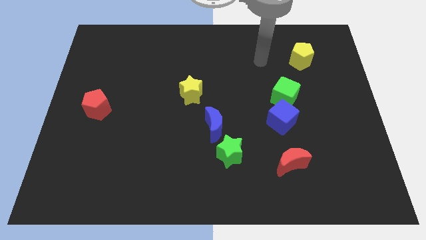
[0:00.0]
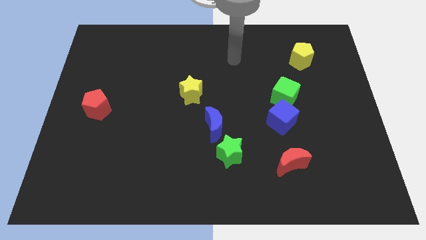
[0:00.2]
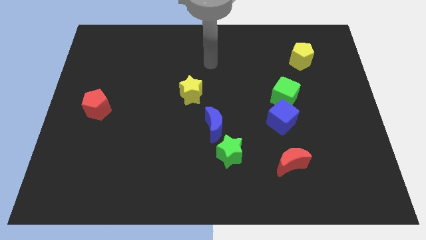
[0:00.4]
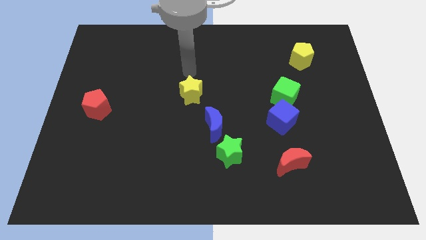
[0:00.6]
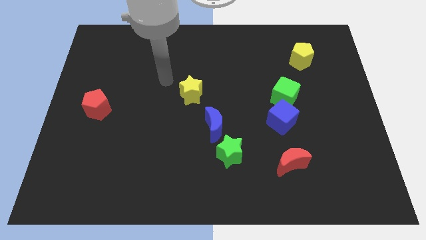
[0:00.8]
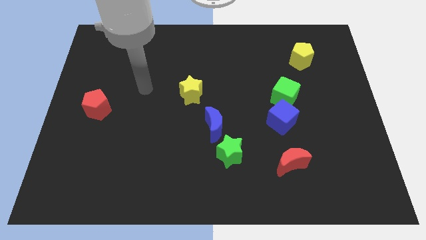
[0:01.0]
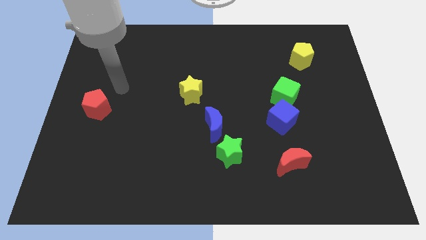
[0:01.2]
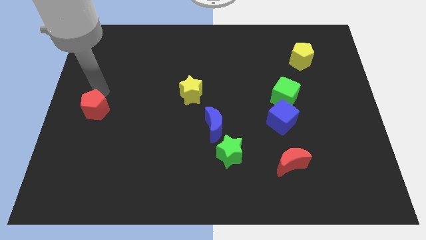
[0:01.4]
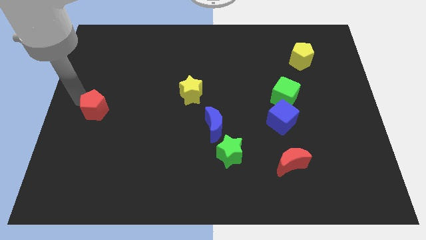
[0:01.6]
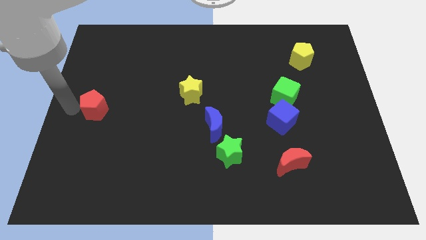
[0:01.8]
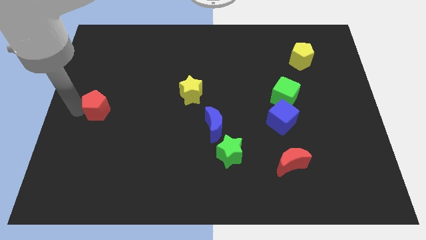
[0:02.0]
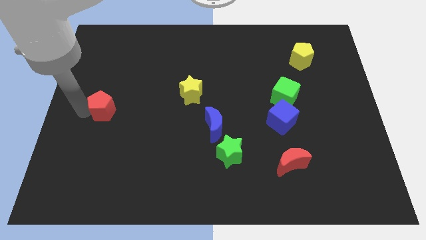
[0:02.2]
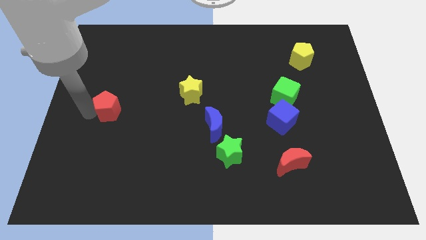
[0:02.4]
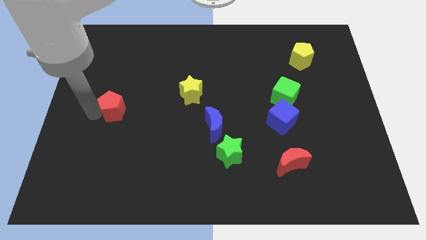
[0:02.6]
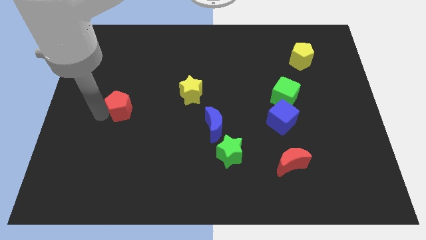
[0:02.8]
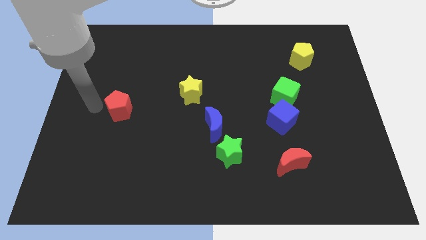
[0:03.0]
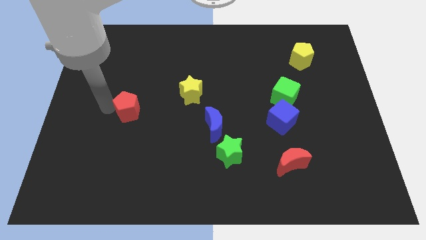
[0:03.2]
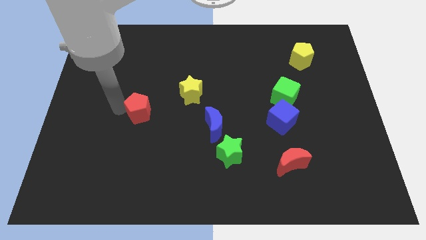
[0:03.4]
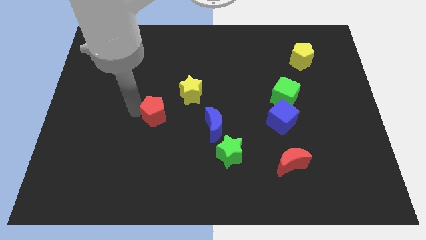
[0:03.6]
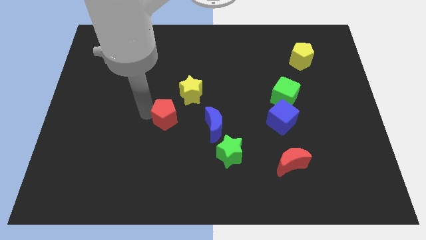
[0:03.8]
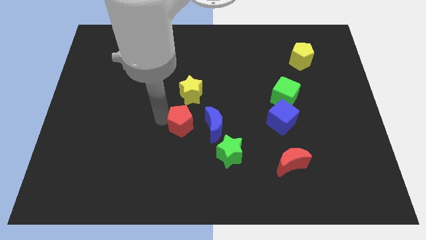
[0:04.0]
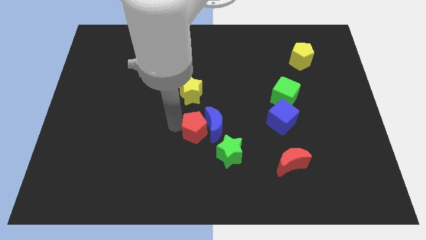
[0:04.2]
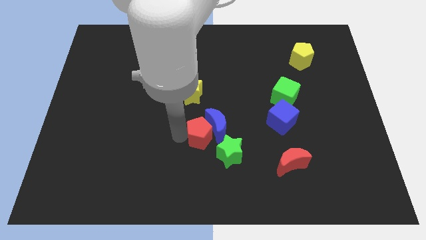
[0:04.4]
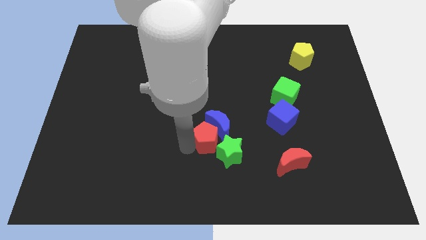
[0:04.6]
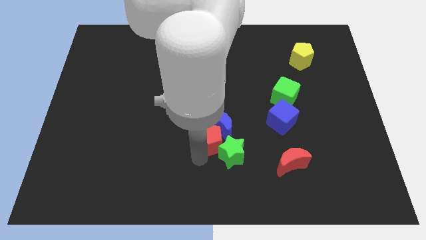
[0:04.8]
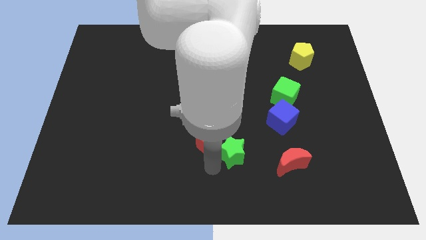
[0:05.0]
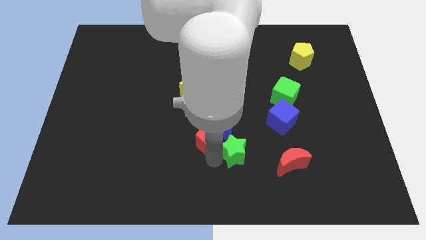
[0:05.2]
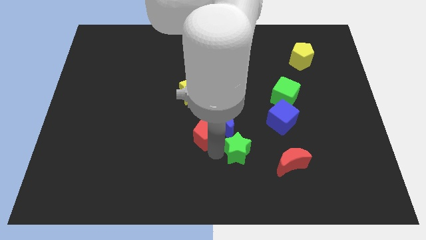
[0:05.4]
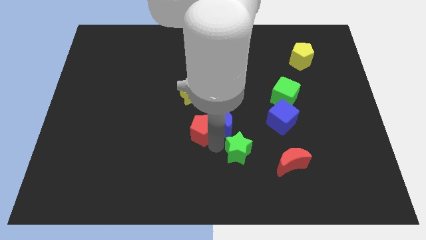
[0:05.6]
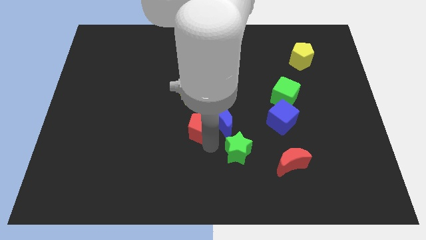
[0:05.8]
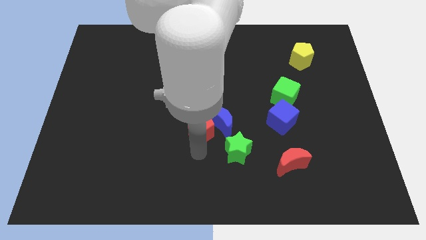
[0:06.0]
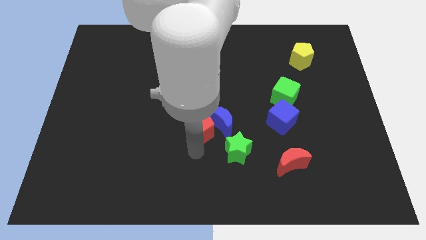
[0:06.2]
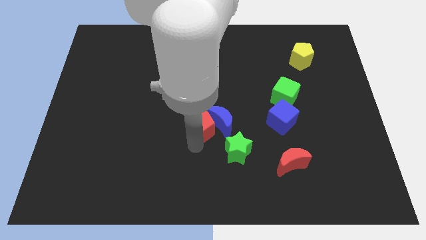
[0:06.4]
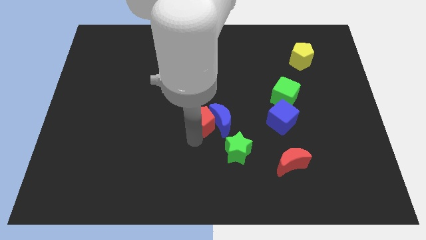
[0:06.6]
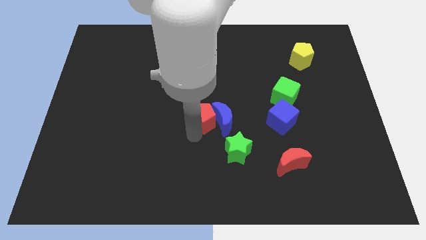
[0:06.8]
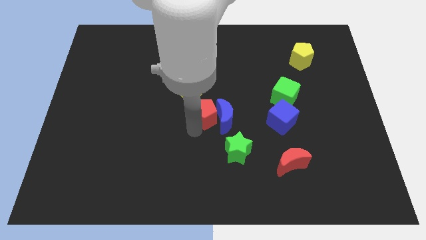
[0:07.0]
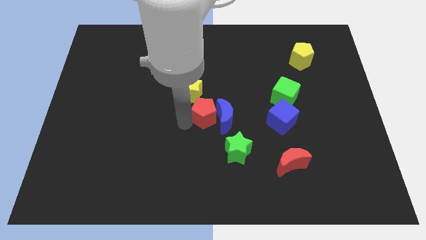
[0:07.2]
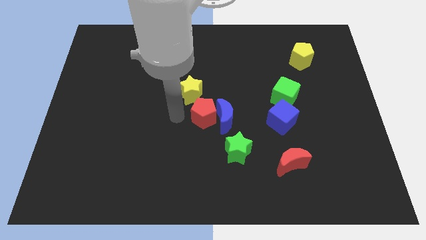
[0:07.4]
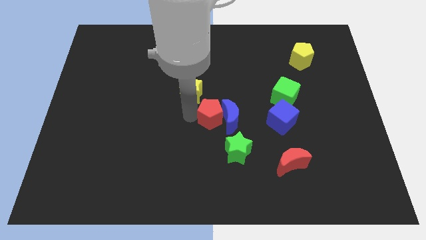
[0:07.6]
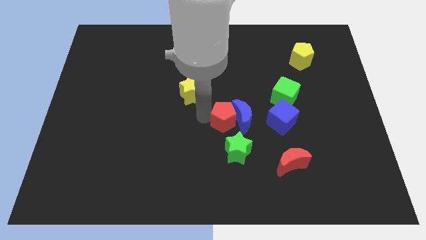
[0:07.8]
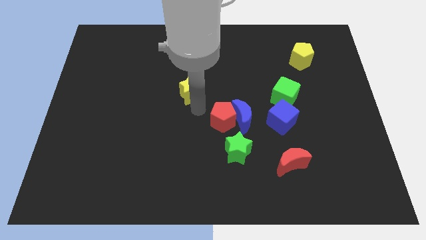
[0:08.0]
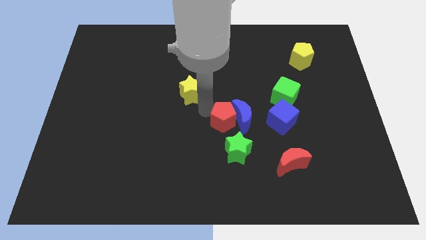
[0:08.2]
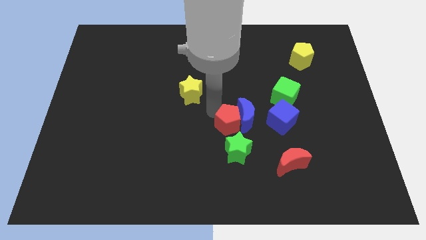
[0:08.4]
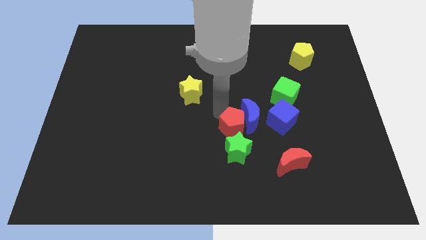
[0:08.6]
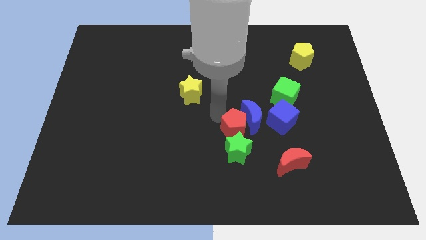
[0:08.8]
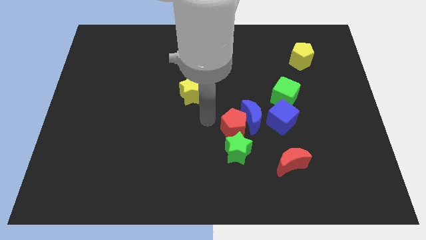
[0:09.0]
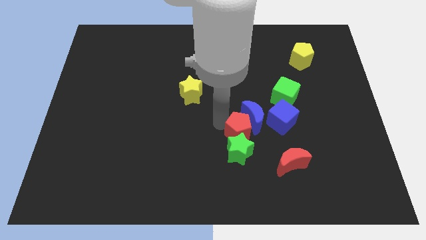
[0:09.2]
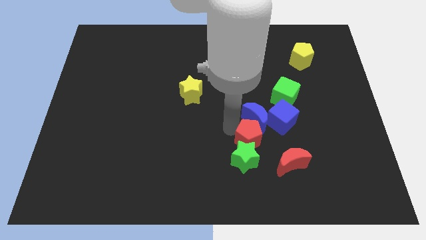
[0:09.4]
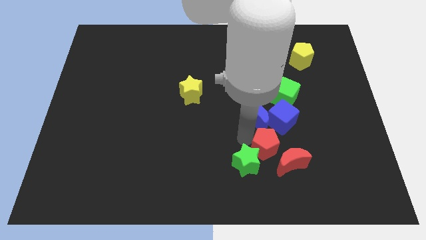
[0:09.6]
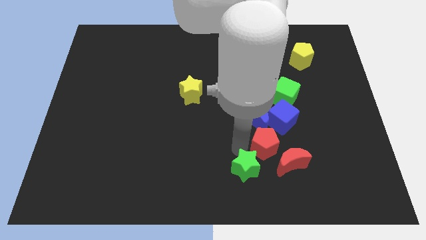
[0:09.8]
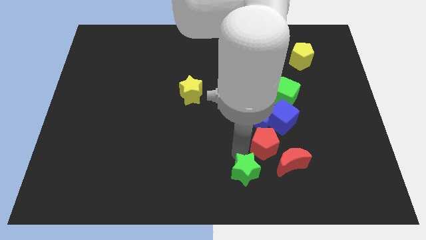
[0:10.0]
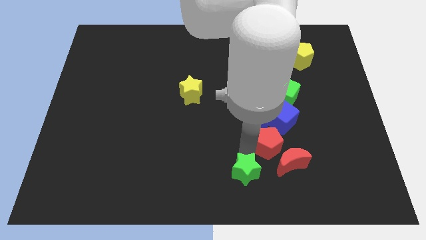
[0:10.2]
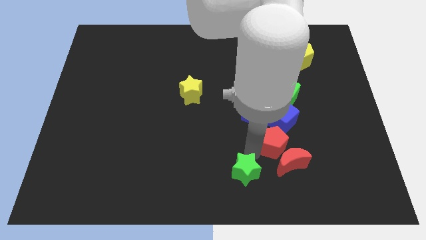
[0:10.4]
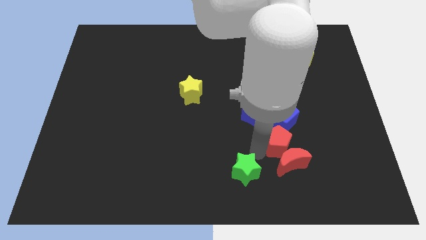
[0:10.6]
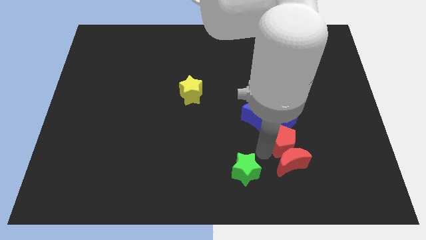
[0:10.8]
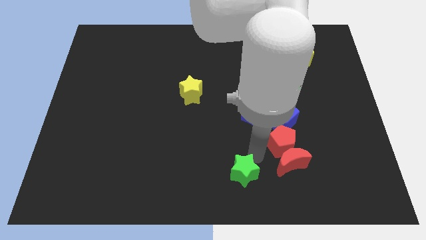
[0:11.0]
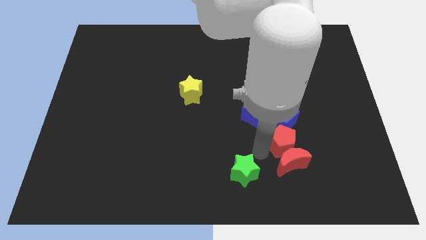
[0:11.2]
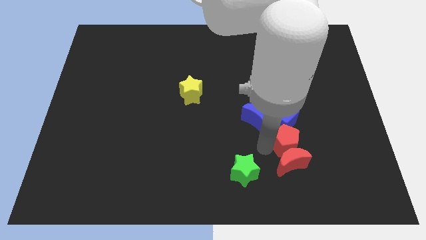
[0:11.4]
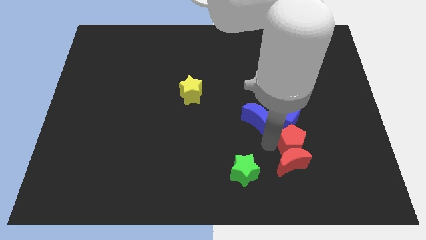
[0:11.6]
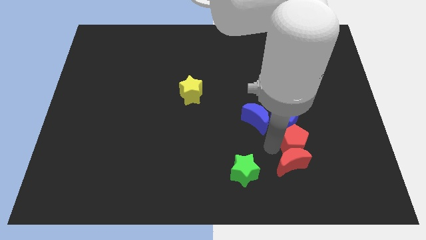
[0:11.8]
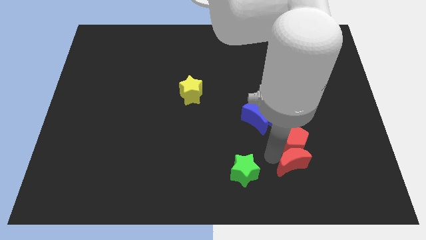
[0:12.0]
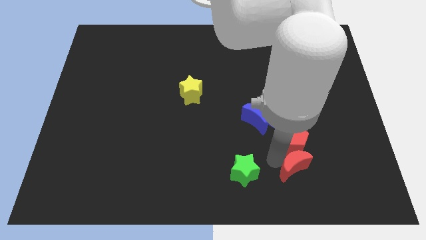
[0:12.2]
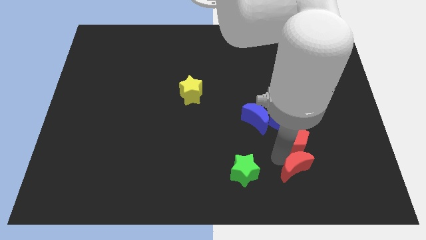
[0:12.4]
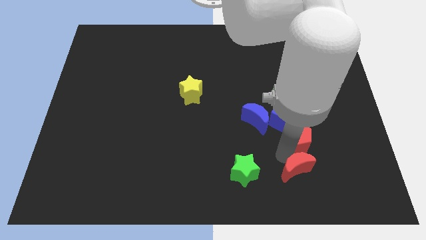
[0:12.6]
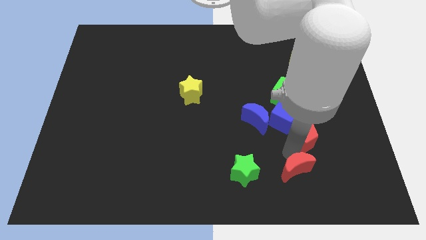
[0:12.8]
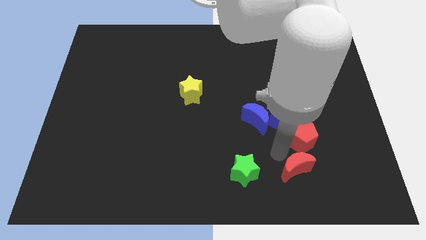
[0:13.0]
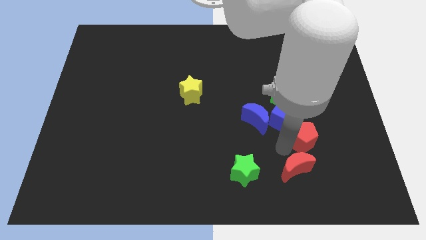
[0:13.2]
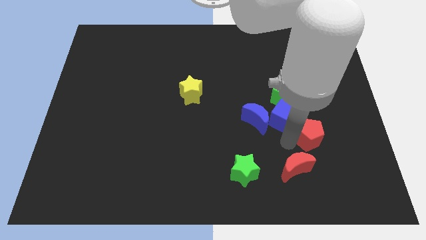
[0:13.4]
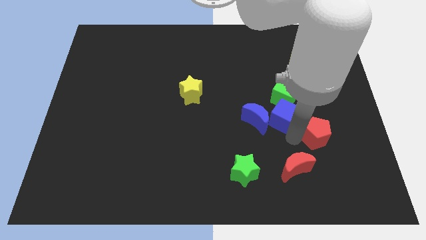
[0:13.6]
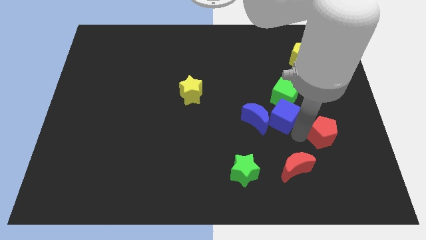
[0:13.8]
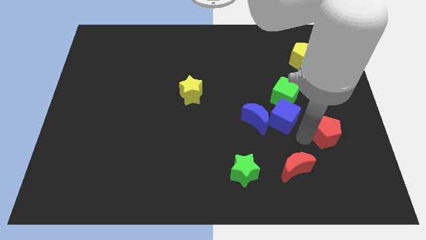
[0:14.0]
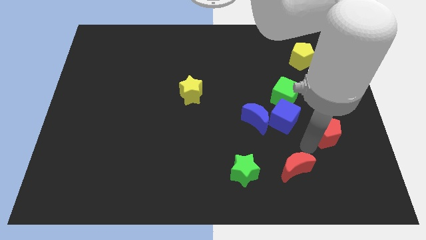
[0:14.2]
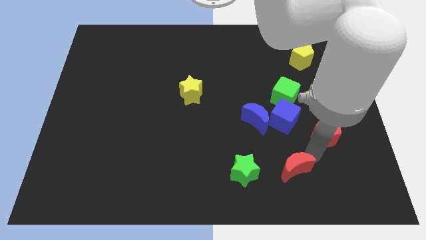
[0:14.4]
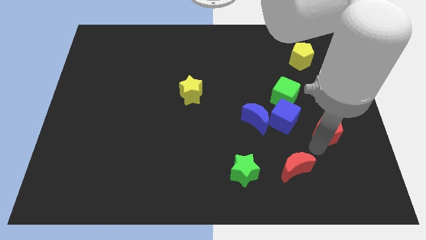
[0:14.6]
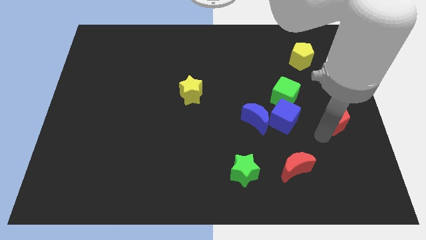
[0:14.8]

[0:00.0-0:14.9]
slide the red pentagon to the right side
